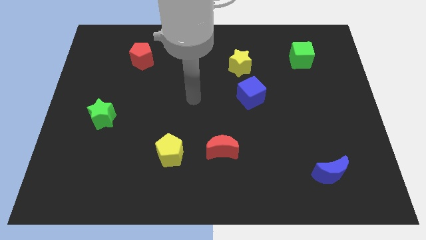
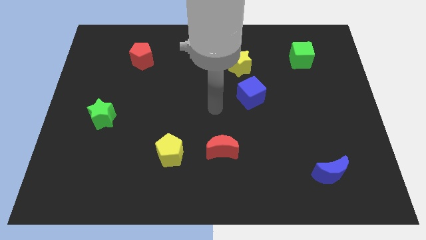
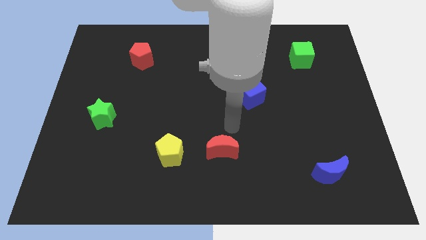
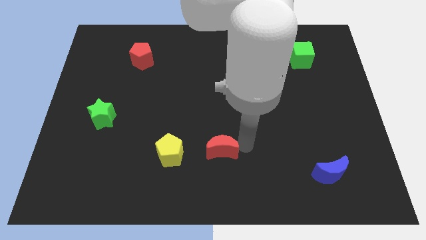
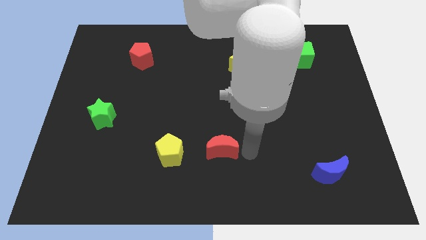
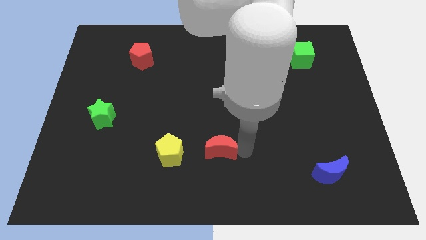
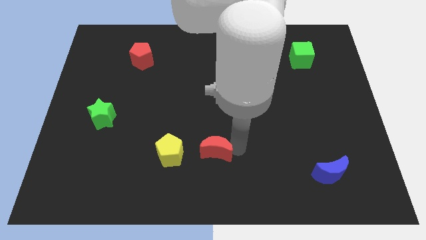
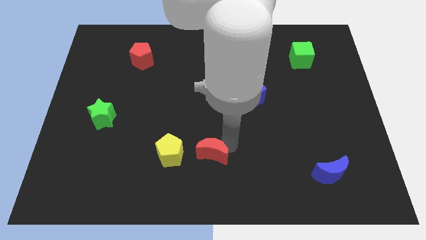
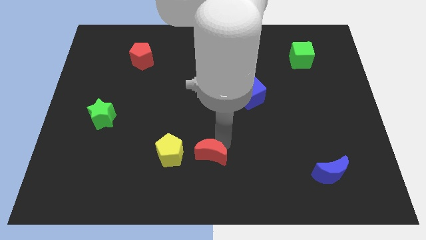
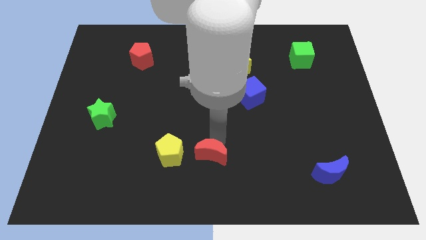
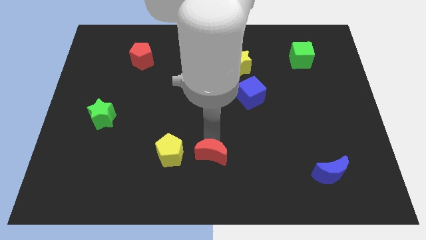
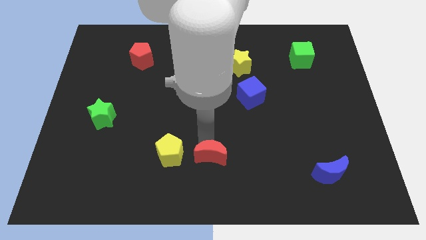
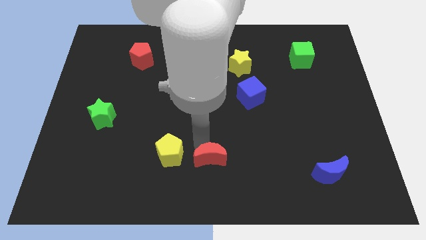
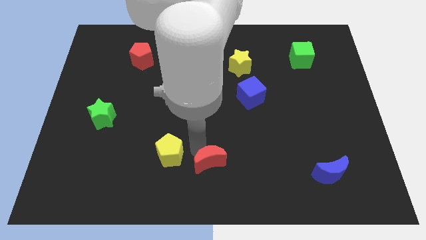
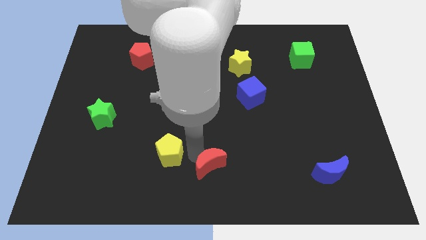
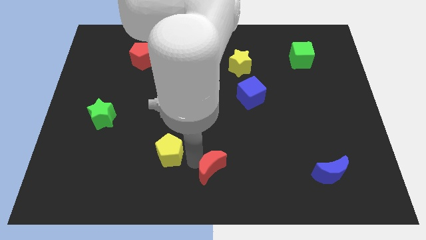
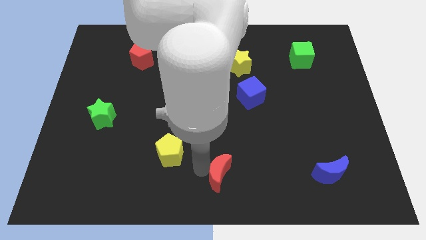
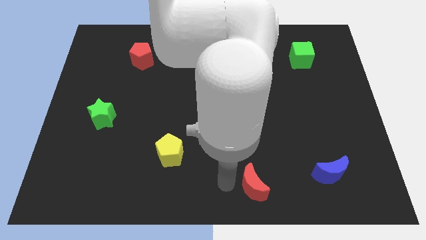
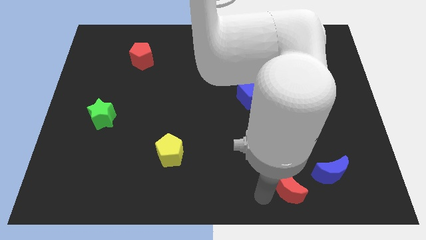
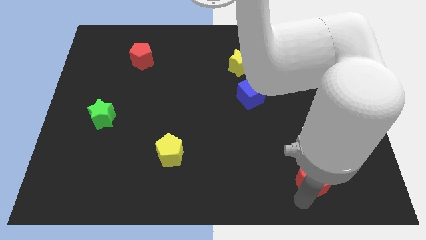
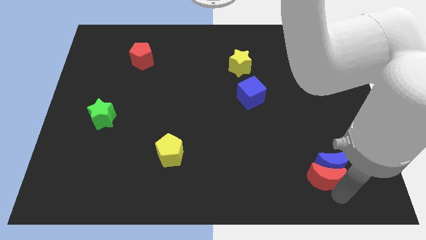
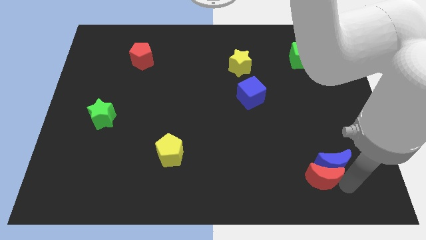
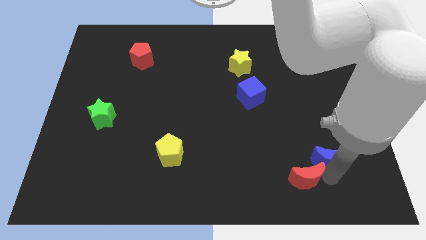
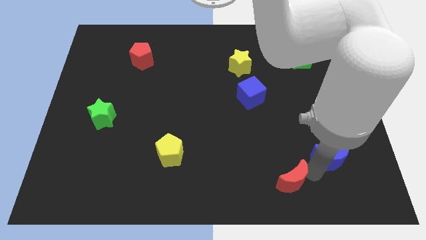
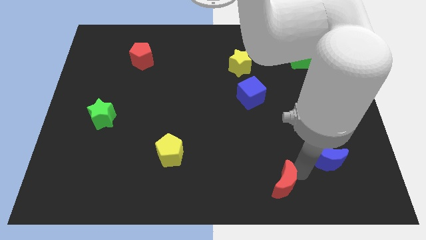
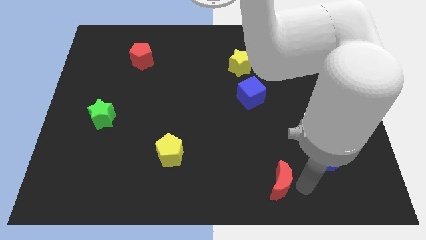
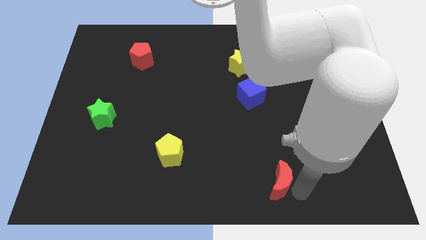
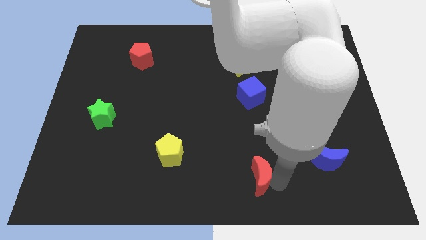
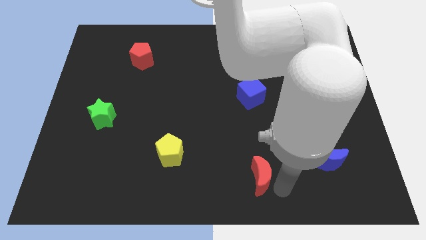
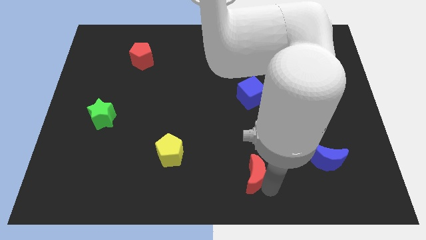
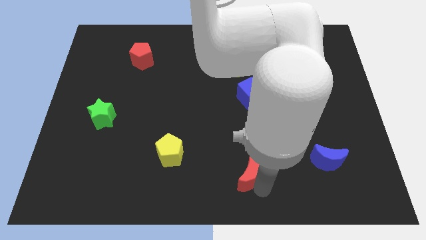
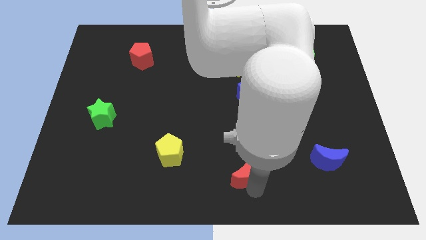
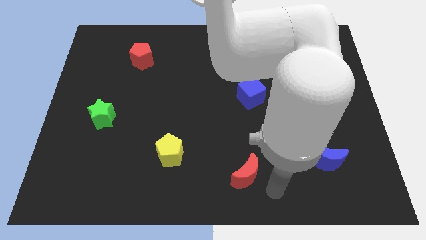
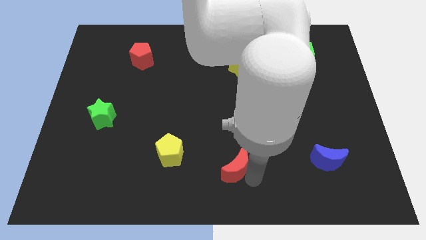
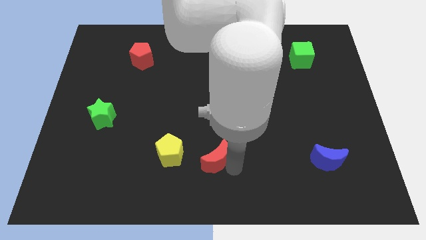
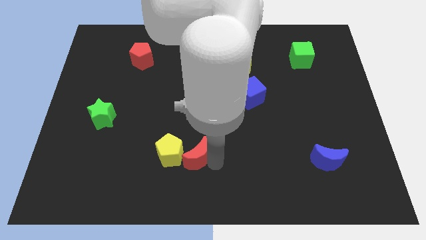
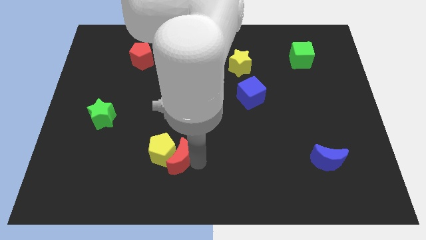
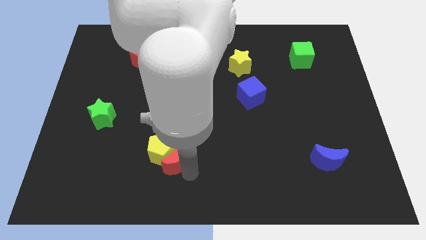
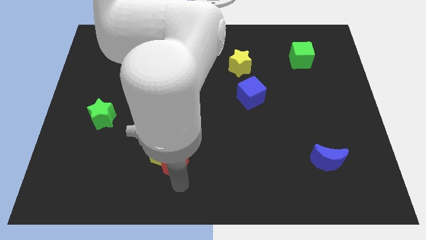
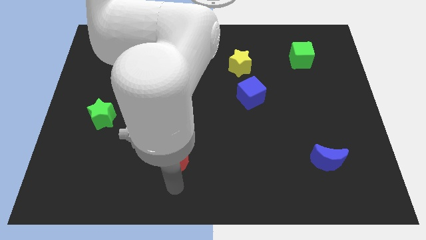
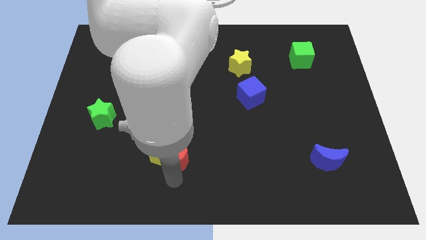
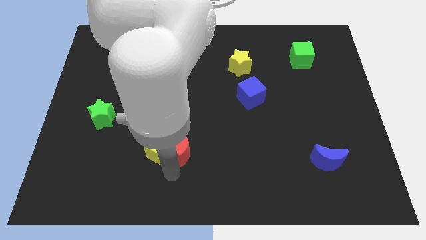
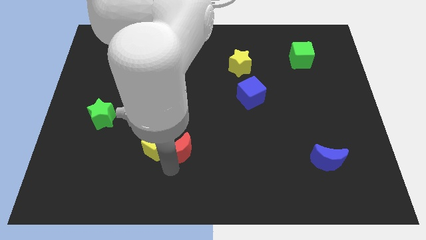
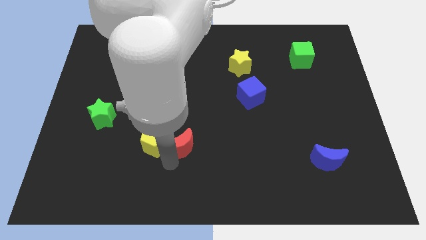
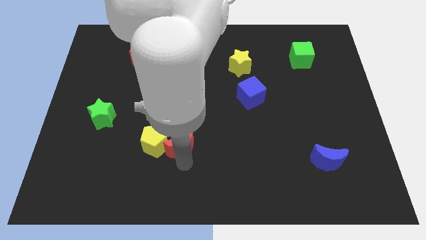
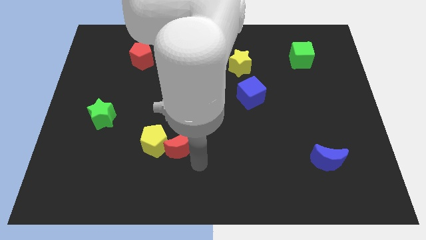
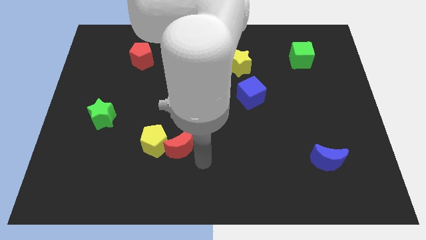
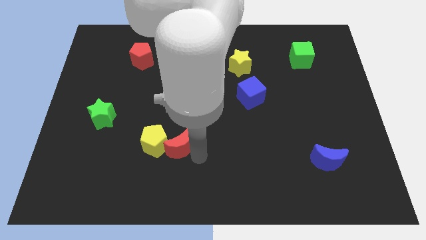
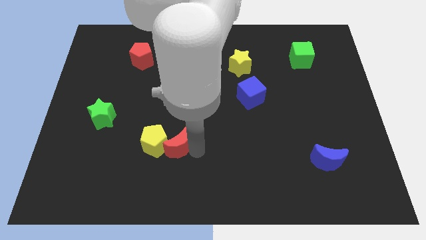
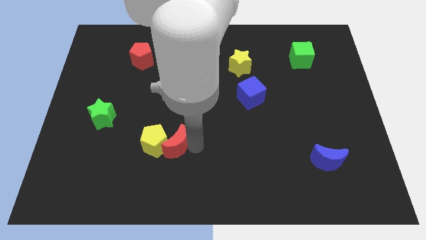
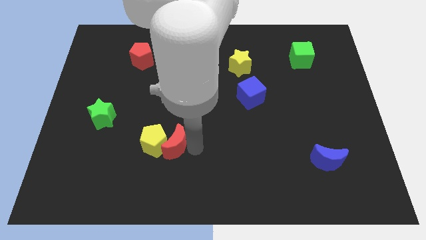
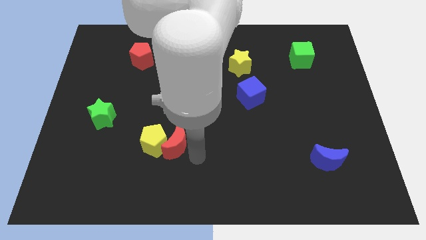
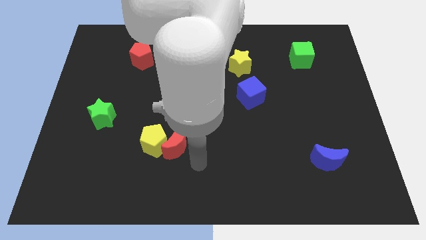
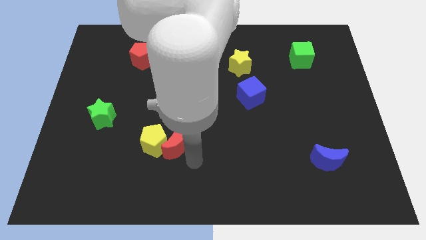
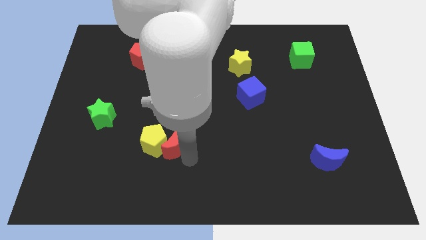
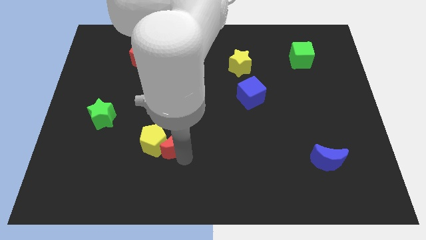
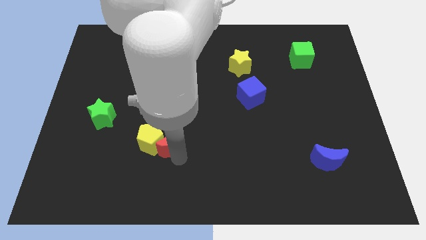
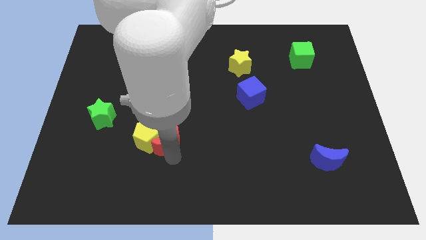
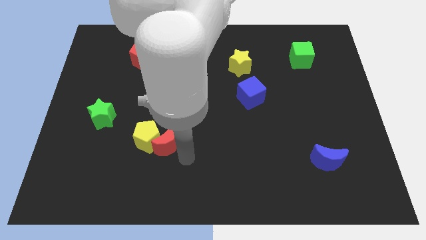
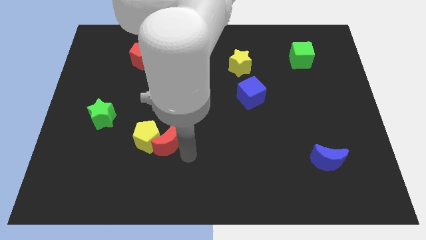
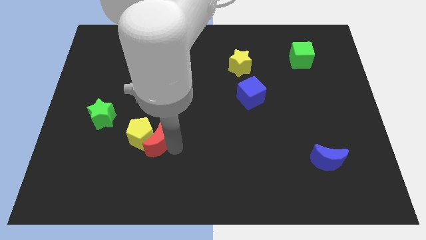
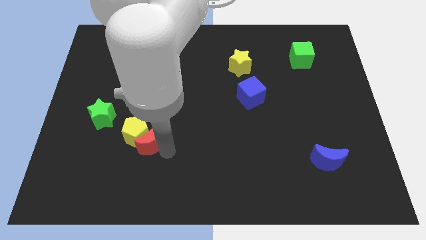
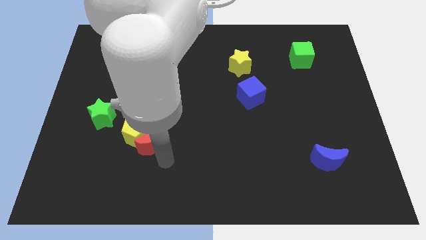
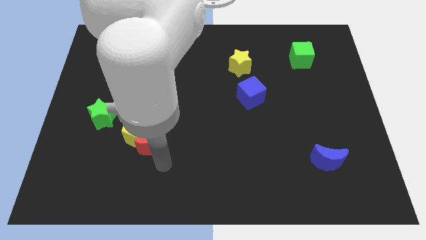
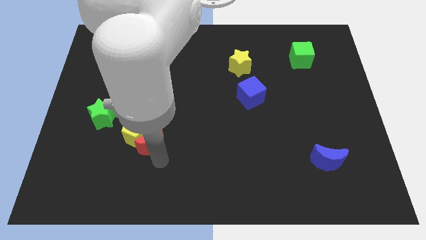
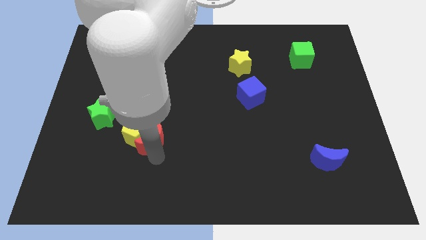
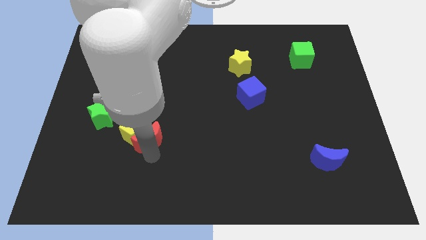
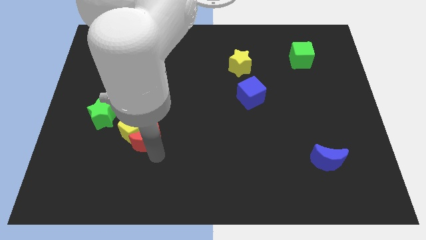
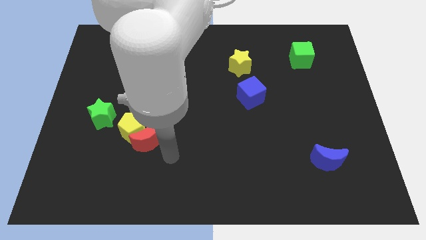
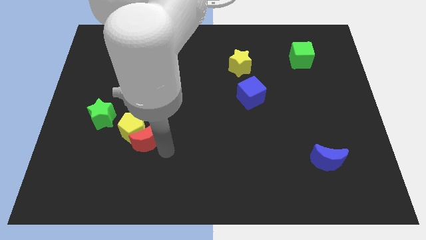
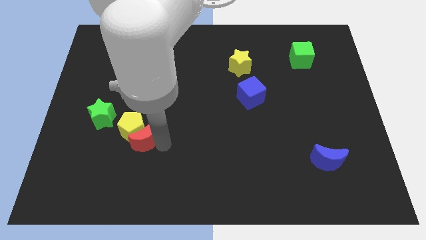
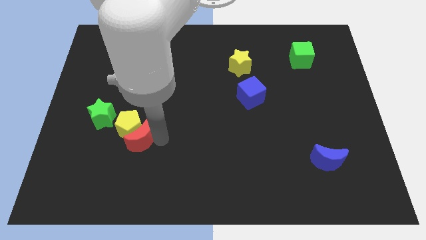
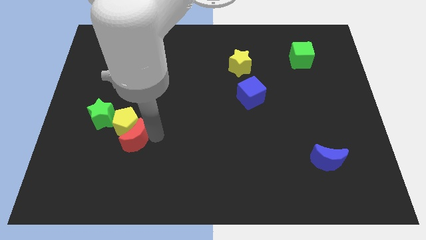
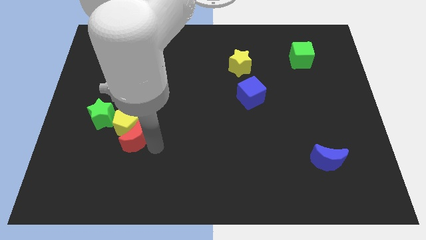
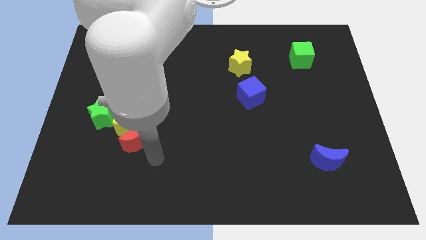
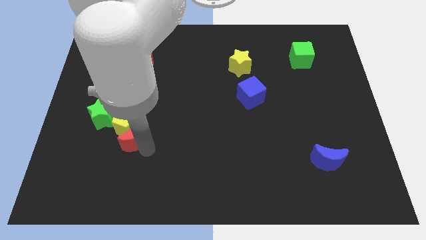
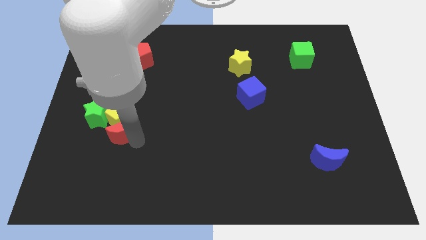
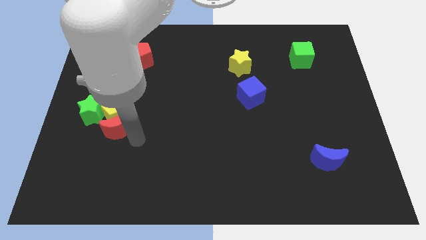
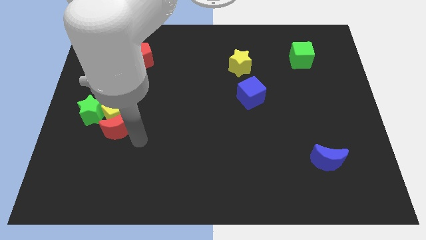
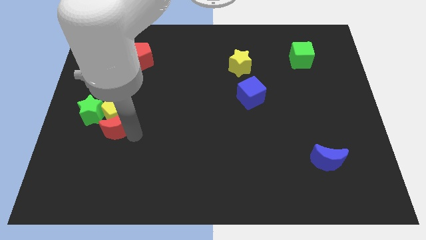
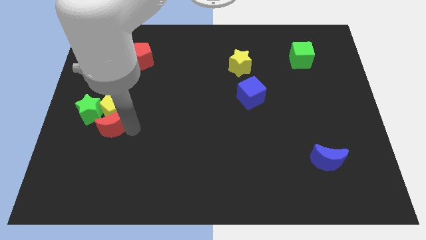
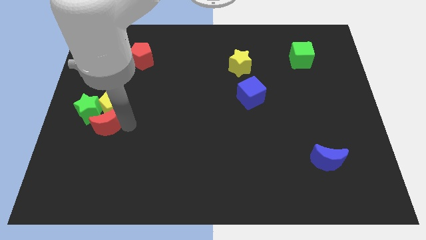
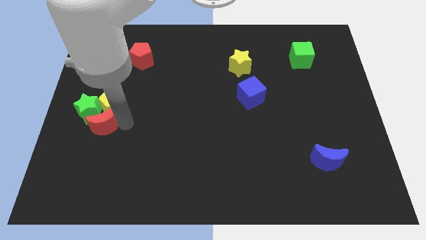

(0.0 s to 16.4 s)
put the red moon next to the green star
